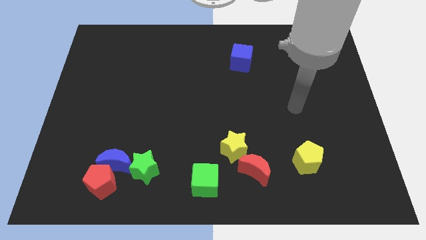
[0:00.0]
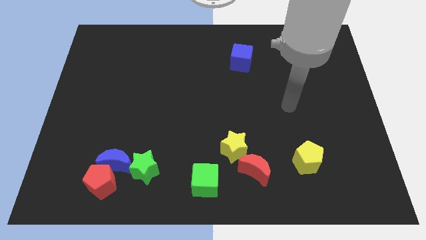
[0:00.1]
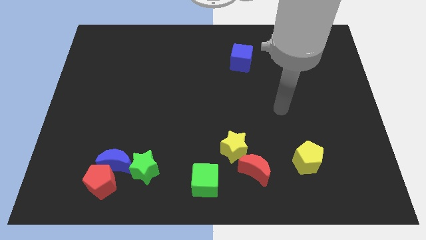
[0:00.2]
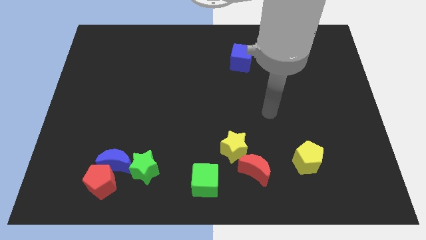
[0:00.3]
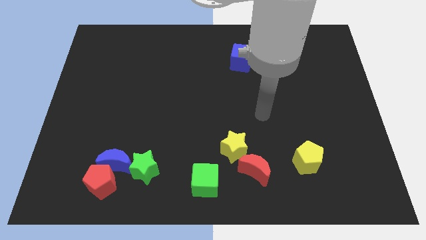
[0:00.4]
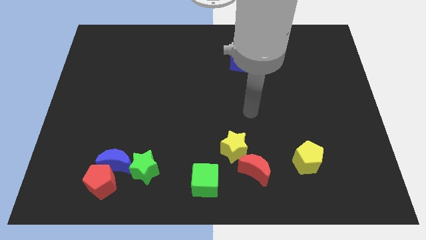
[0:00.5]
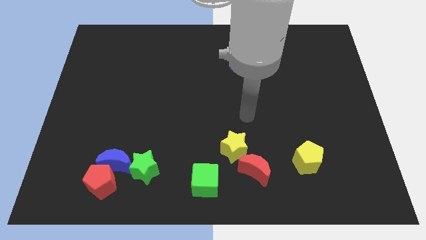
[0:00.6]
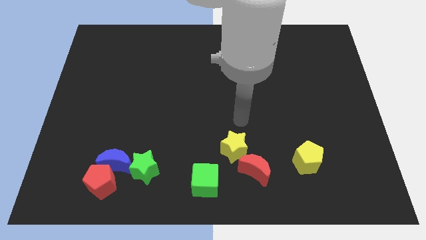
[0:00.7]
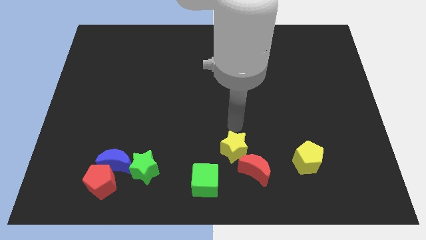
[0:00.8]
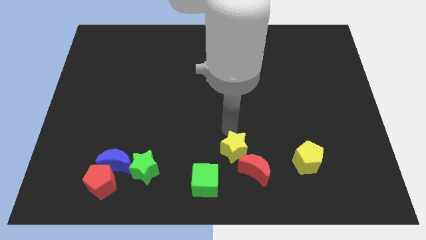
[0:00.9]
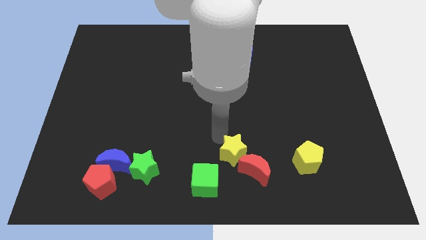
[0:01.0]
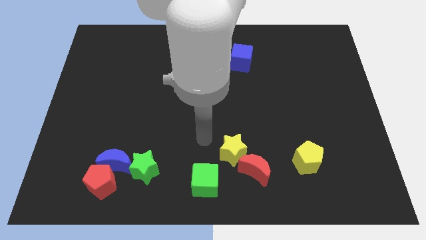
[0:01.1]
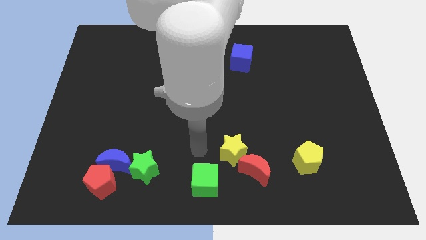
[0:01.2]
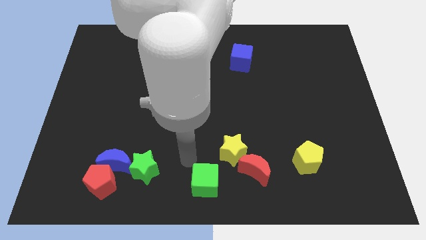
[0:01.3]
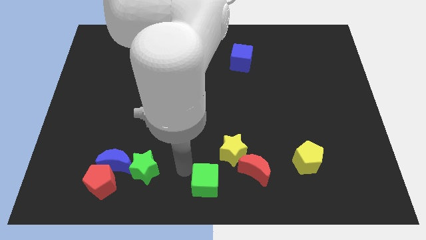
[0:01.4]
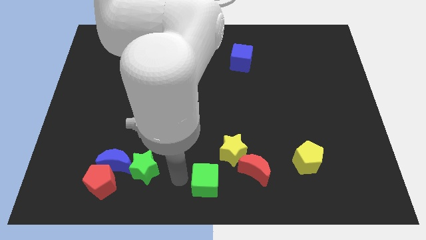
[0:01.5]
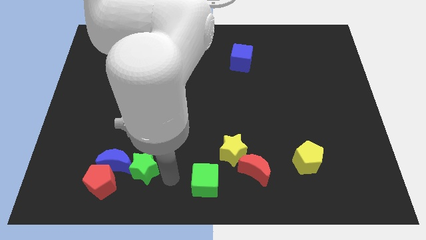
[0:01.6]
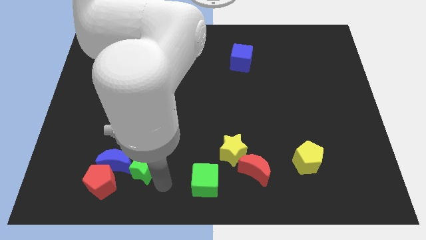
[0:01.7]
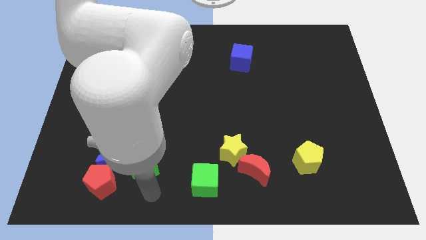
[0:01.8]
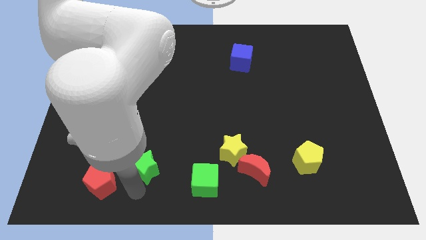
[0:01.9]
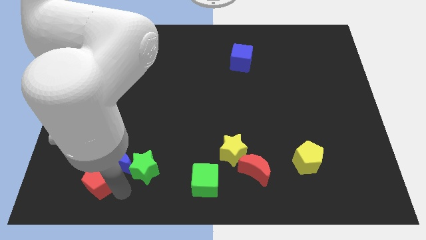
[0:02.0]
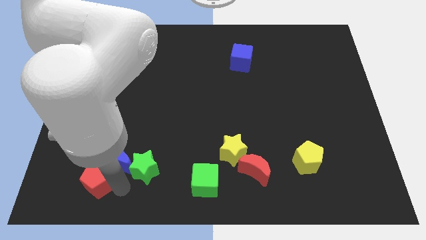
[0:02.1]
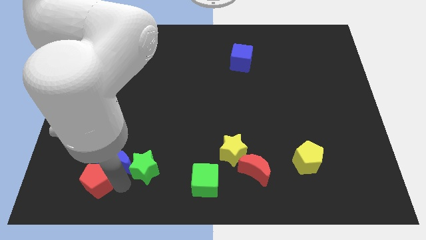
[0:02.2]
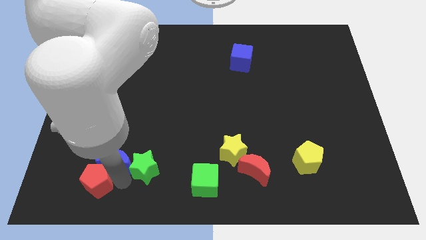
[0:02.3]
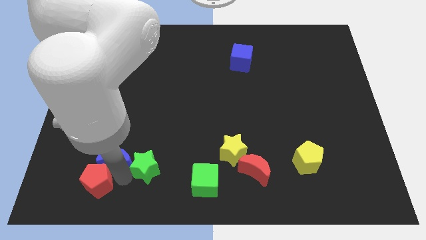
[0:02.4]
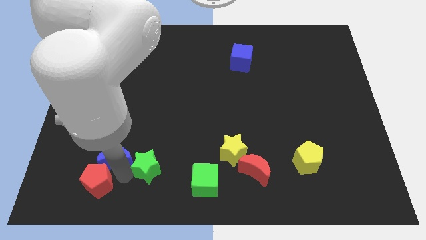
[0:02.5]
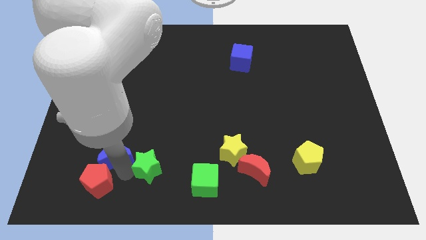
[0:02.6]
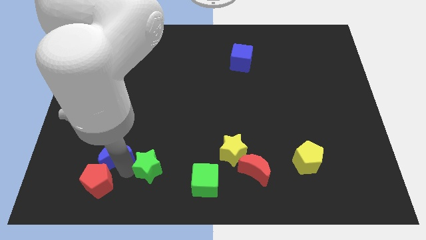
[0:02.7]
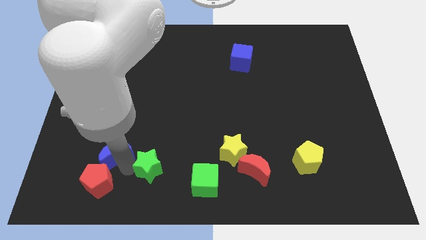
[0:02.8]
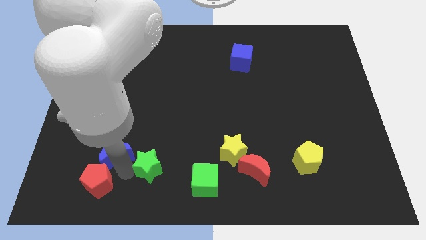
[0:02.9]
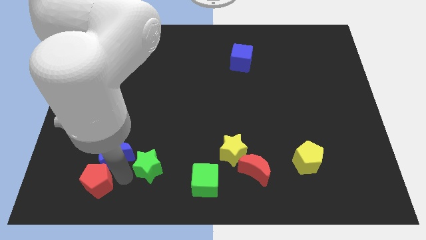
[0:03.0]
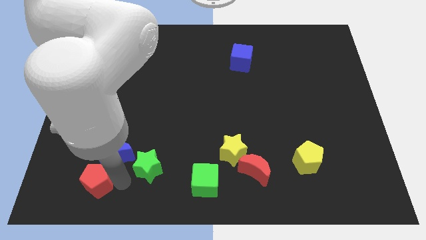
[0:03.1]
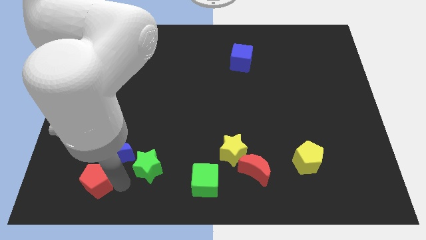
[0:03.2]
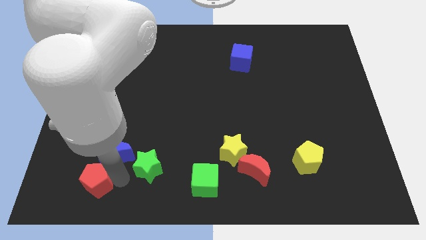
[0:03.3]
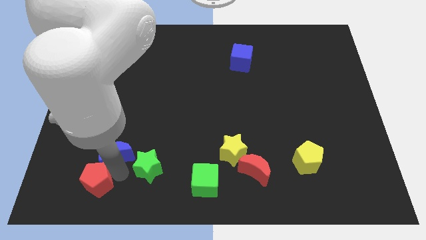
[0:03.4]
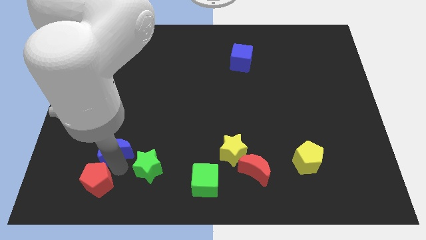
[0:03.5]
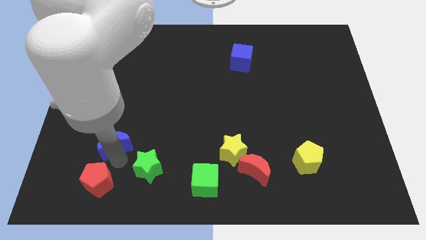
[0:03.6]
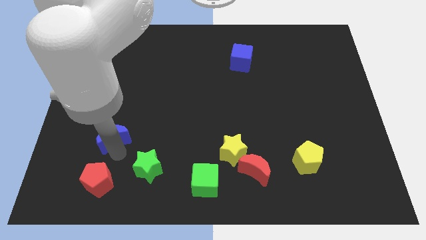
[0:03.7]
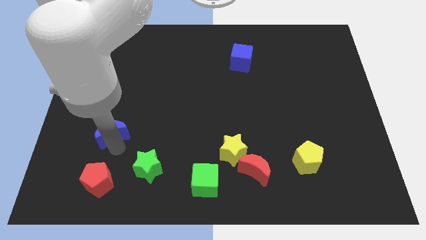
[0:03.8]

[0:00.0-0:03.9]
pull the blue moon apart from the red pentagon and green star

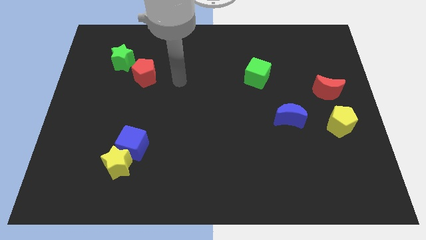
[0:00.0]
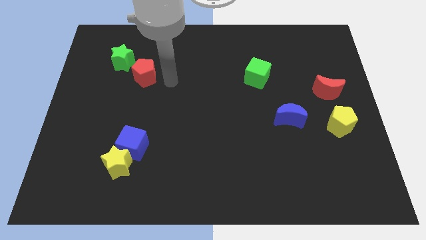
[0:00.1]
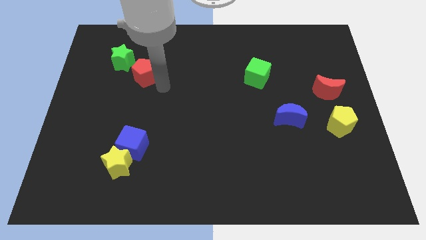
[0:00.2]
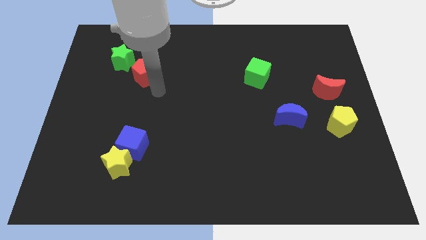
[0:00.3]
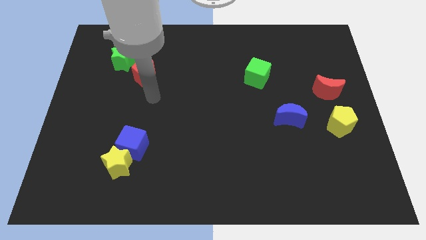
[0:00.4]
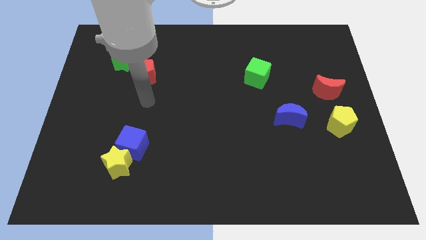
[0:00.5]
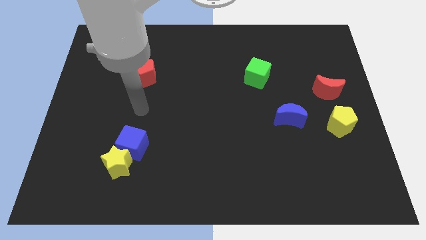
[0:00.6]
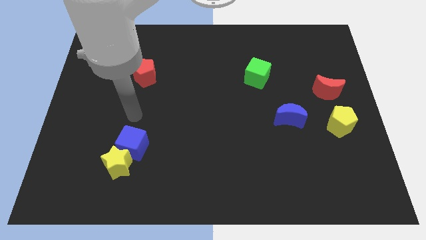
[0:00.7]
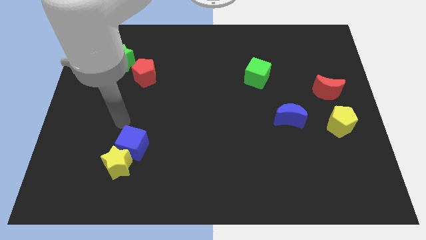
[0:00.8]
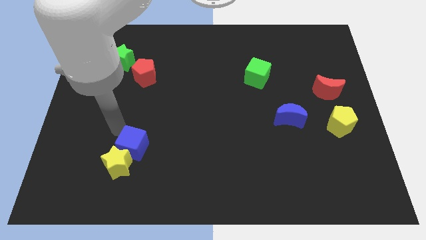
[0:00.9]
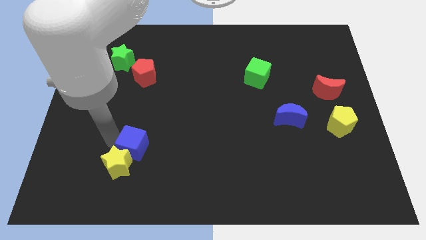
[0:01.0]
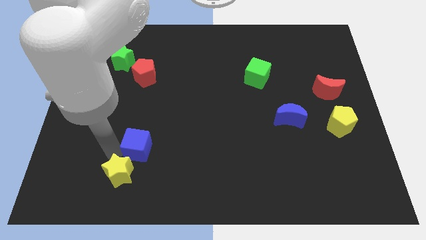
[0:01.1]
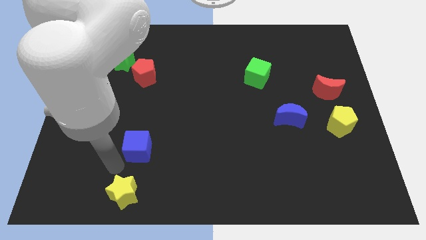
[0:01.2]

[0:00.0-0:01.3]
pull the blue cube apart from the yellow star

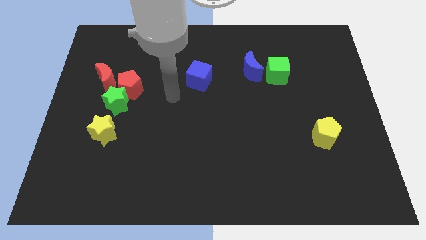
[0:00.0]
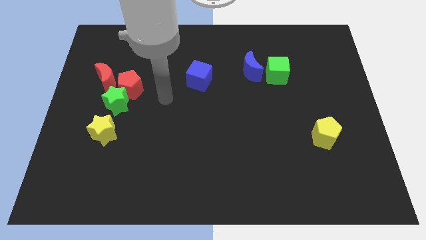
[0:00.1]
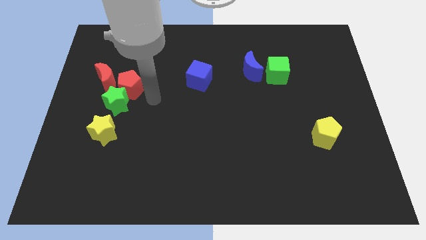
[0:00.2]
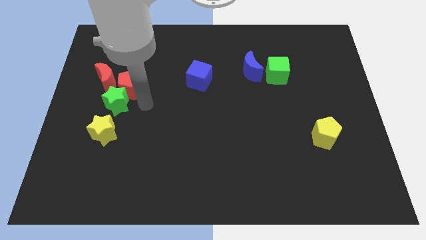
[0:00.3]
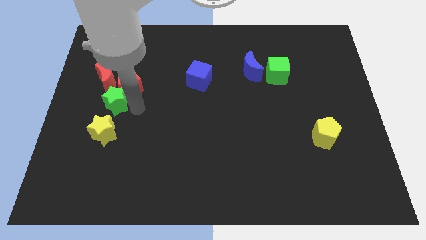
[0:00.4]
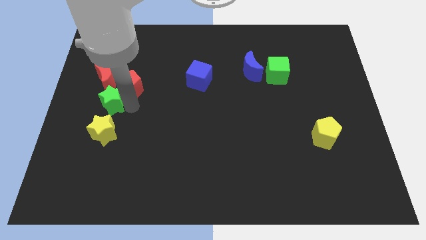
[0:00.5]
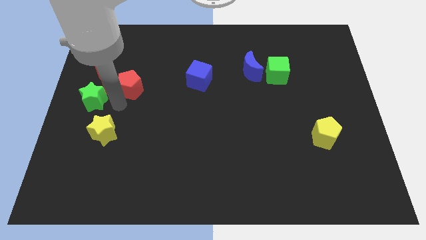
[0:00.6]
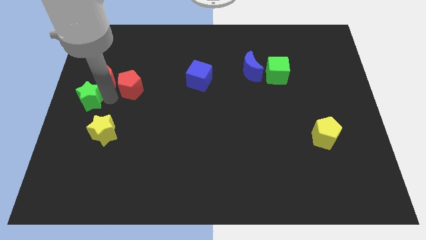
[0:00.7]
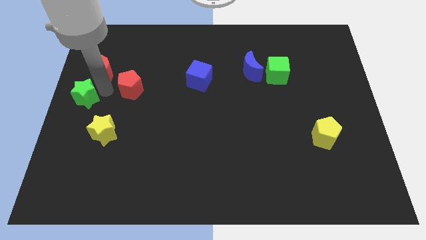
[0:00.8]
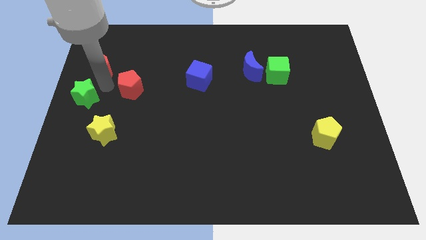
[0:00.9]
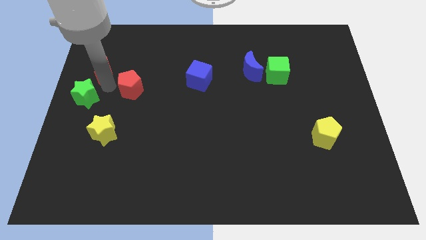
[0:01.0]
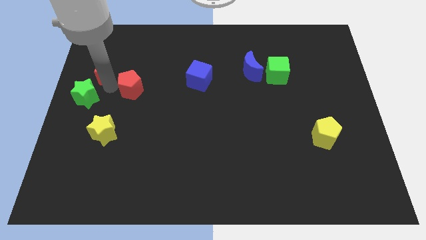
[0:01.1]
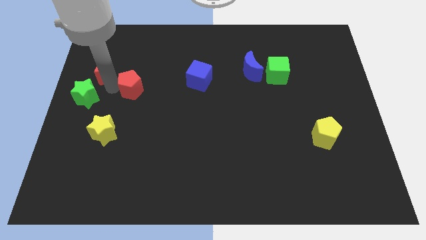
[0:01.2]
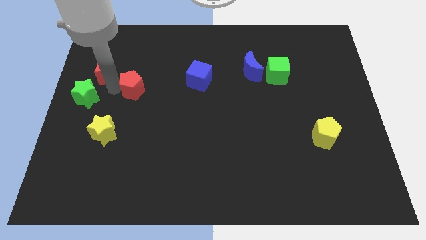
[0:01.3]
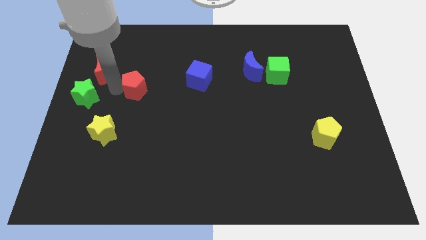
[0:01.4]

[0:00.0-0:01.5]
separate the red pentagon from the green star and red moon

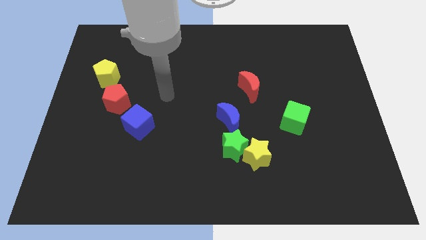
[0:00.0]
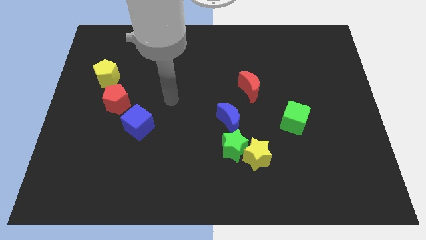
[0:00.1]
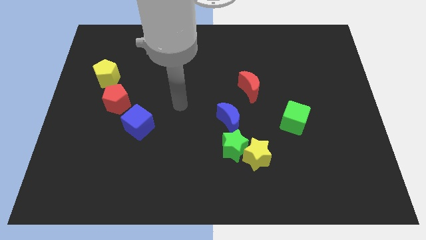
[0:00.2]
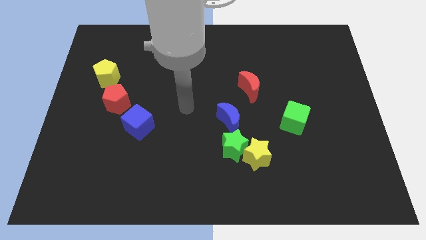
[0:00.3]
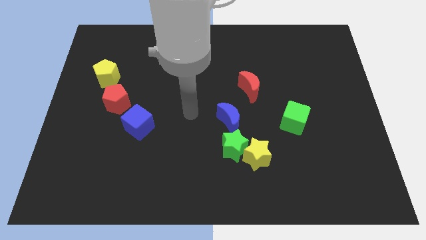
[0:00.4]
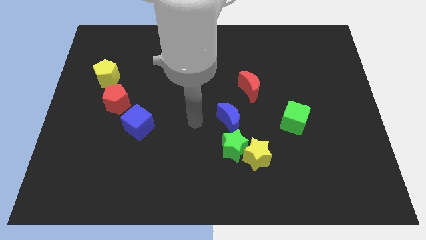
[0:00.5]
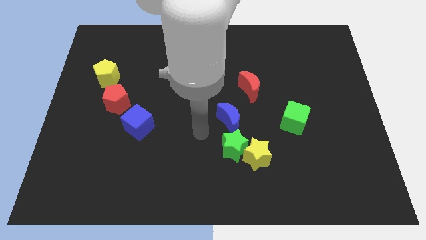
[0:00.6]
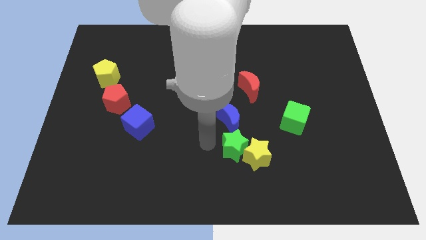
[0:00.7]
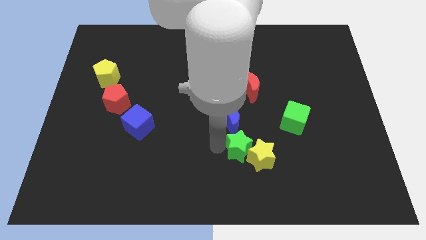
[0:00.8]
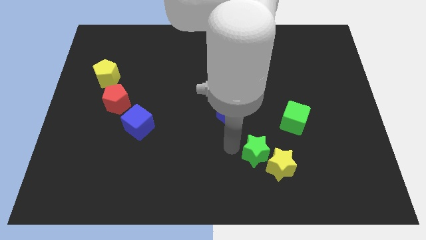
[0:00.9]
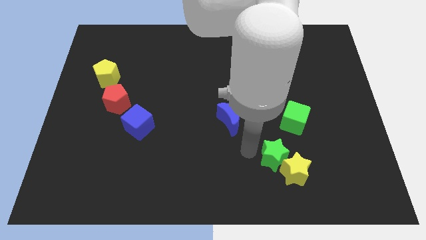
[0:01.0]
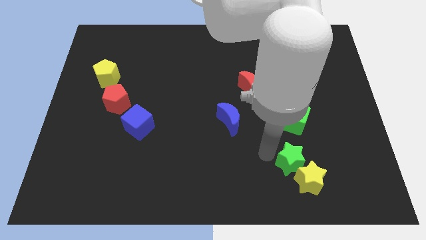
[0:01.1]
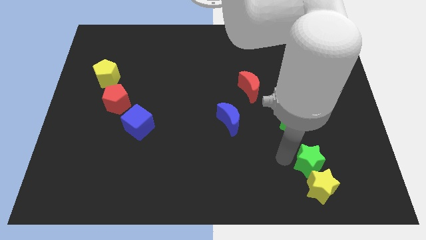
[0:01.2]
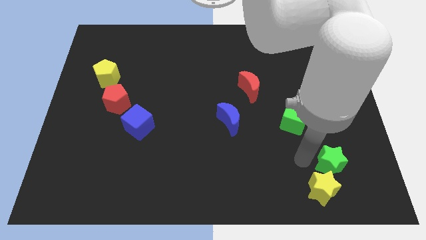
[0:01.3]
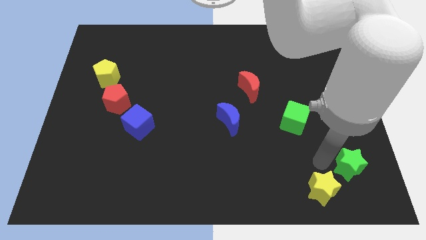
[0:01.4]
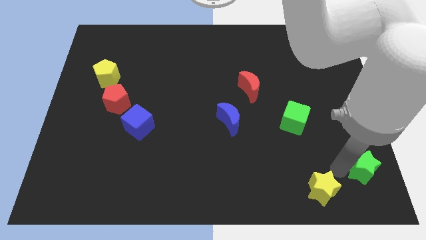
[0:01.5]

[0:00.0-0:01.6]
pull the yellow star apart from the green star

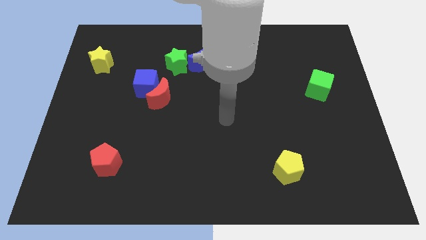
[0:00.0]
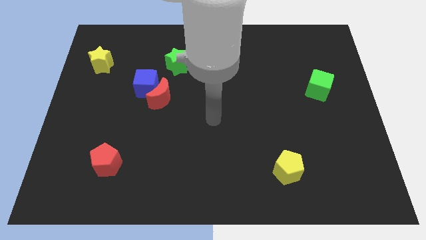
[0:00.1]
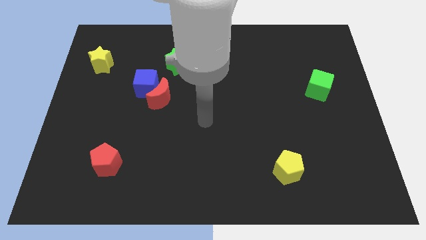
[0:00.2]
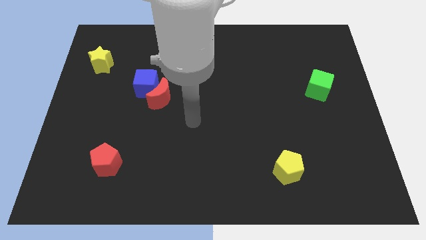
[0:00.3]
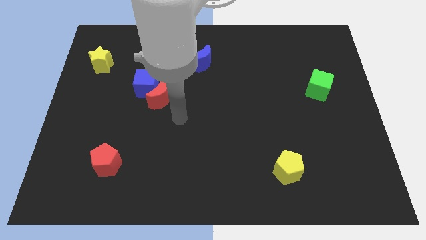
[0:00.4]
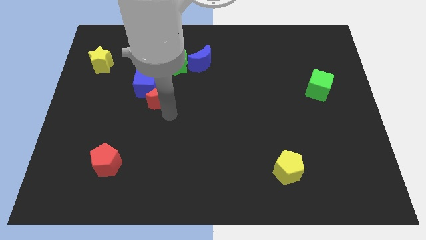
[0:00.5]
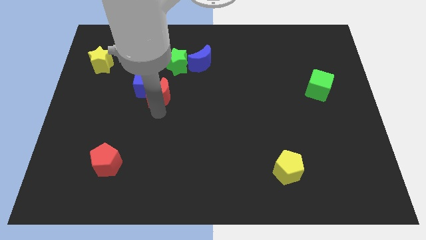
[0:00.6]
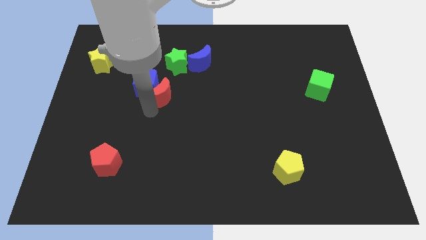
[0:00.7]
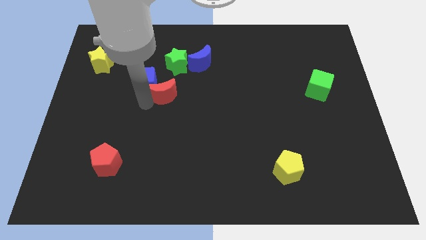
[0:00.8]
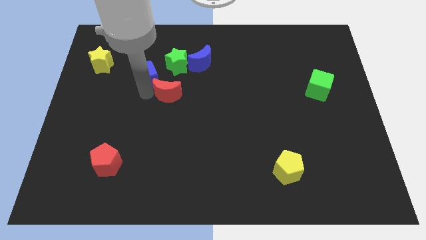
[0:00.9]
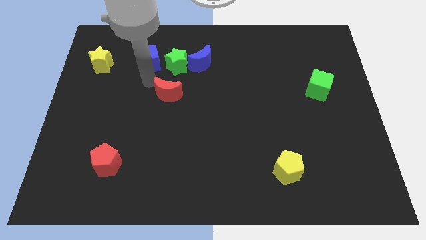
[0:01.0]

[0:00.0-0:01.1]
pull the red moon apart from the blue cube
